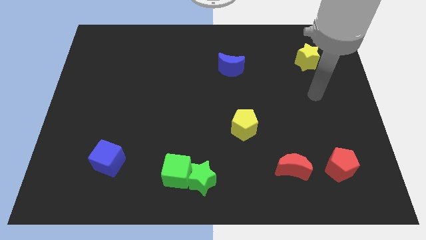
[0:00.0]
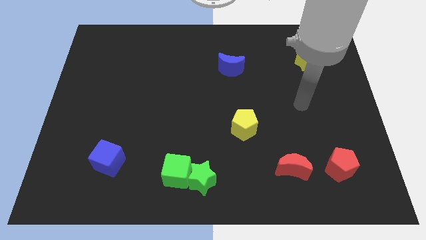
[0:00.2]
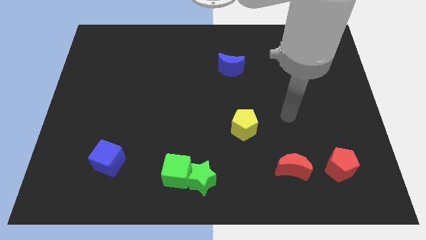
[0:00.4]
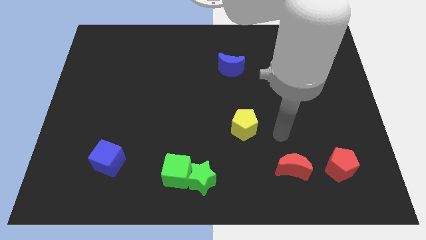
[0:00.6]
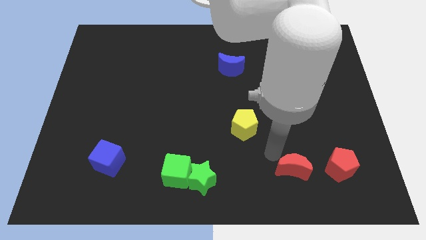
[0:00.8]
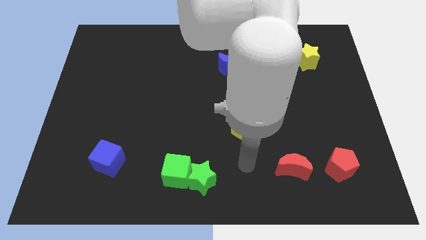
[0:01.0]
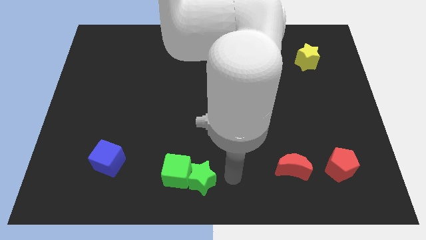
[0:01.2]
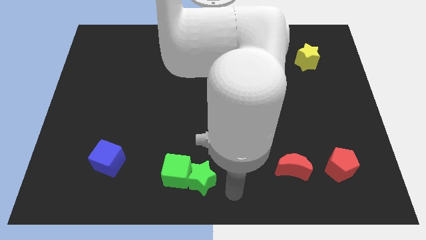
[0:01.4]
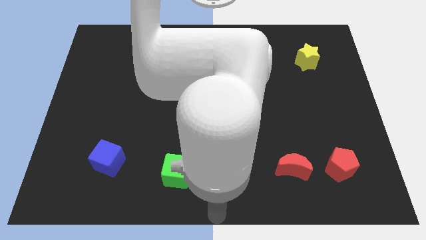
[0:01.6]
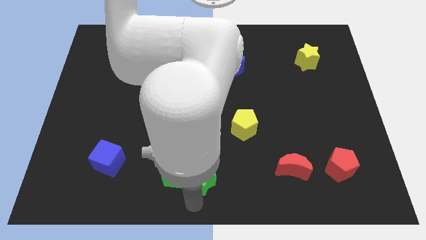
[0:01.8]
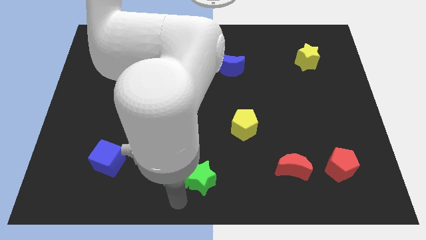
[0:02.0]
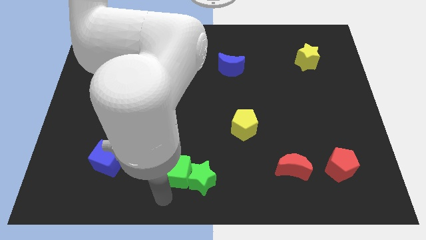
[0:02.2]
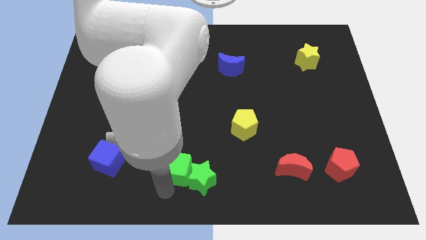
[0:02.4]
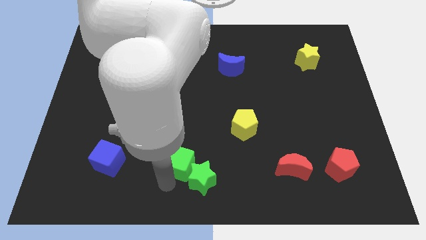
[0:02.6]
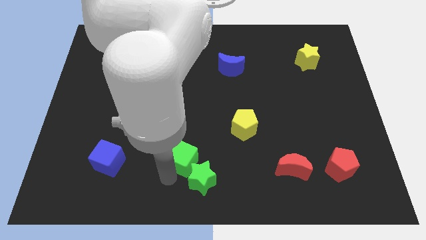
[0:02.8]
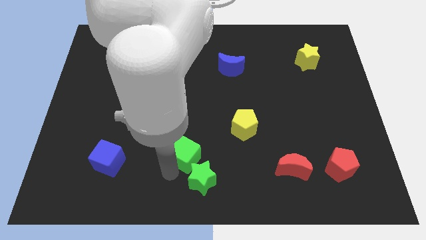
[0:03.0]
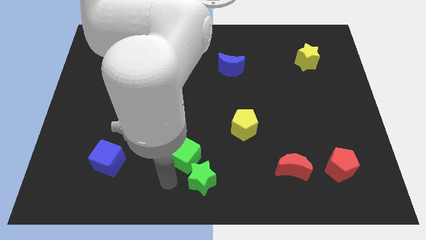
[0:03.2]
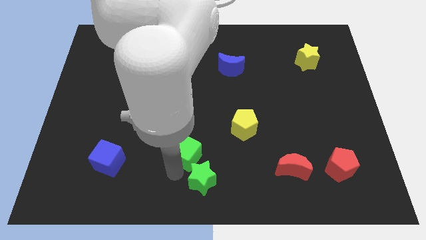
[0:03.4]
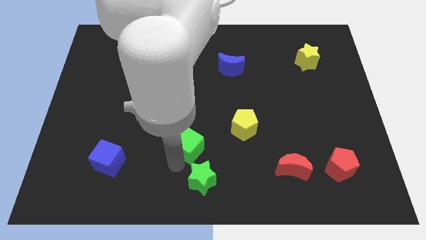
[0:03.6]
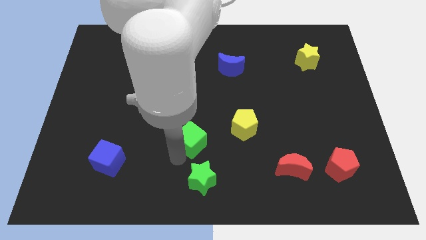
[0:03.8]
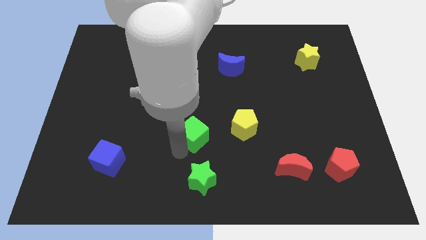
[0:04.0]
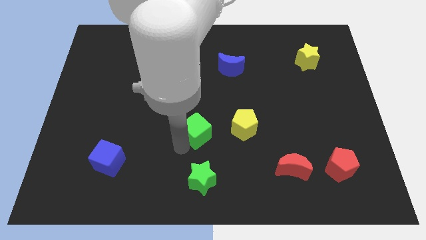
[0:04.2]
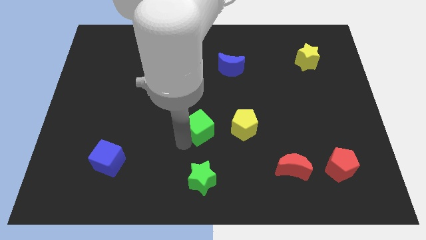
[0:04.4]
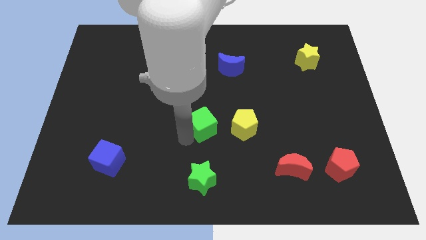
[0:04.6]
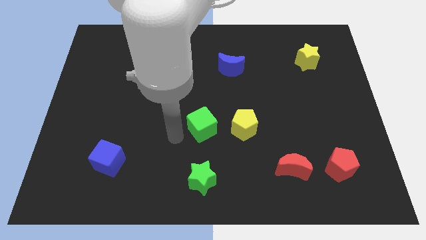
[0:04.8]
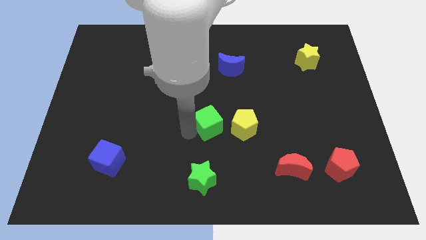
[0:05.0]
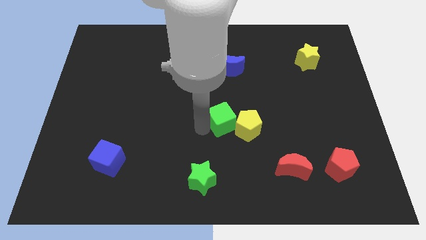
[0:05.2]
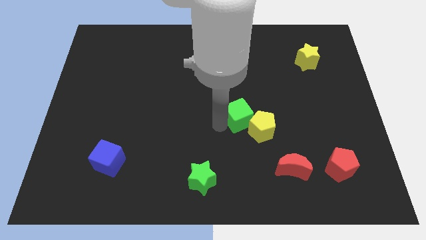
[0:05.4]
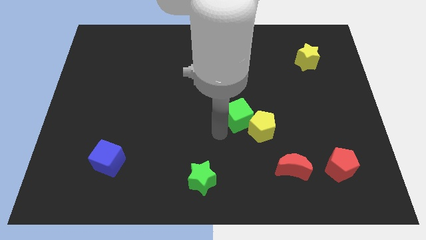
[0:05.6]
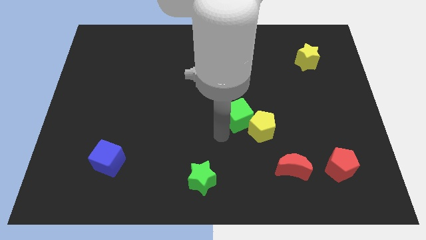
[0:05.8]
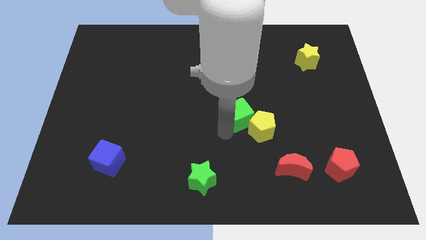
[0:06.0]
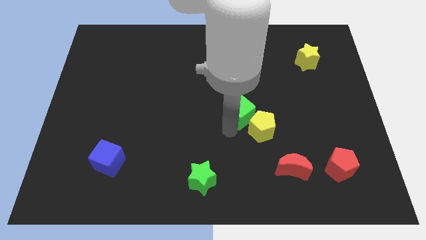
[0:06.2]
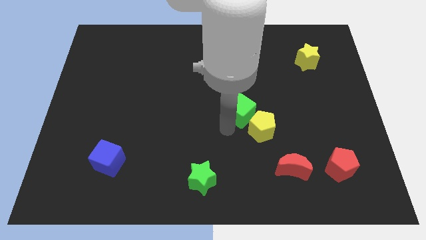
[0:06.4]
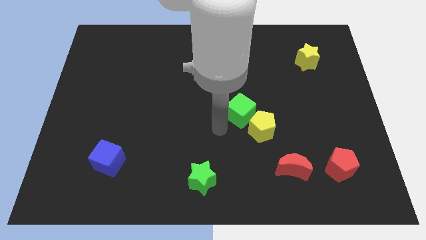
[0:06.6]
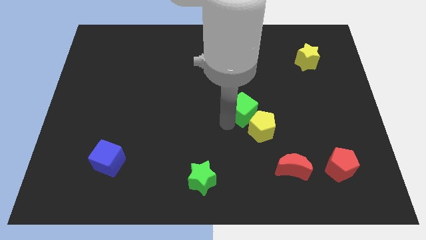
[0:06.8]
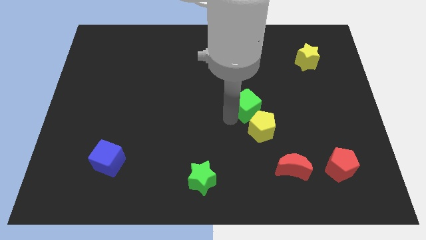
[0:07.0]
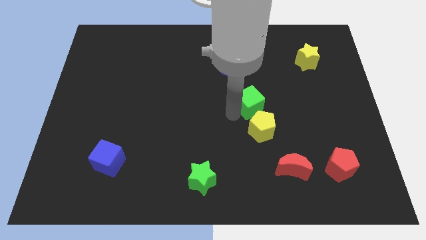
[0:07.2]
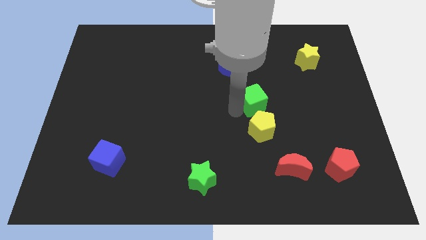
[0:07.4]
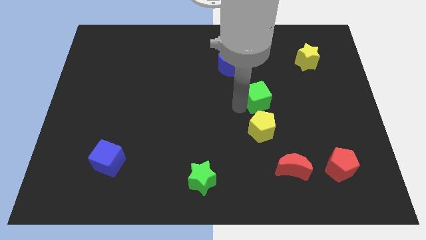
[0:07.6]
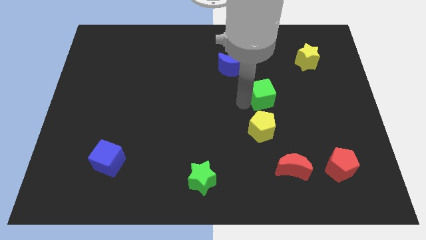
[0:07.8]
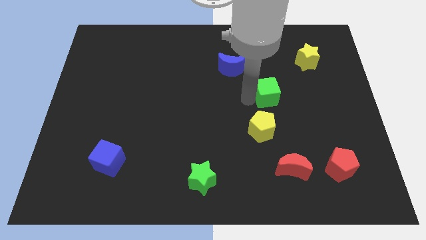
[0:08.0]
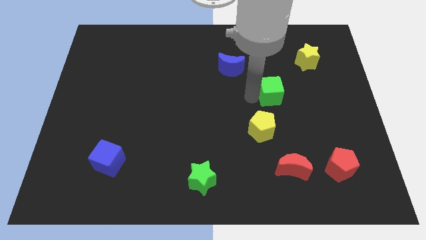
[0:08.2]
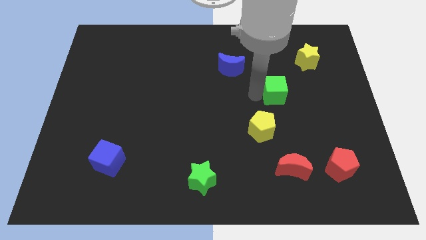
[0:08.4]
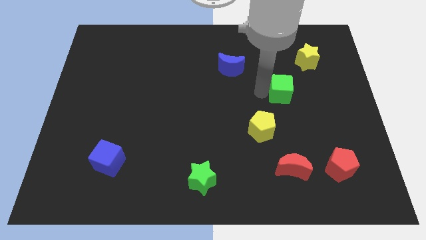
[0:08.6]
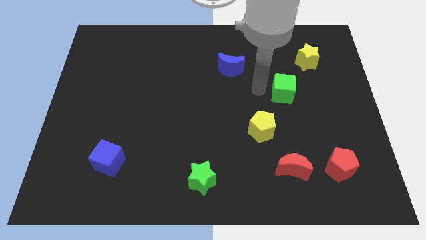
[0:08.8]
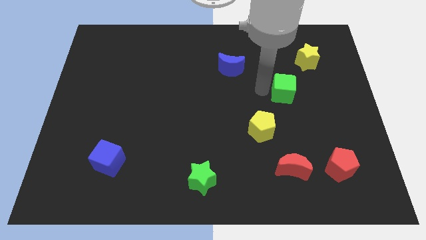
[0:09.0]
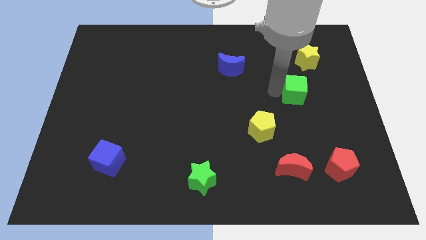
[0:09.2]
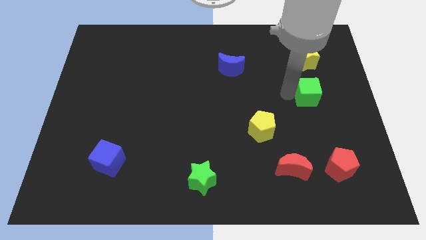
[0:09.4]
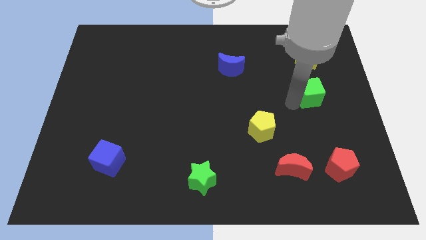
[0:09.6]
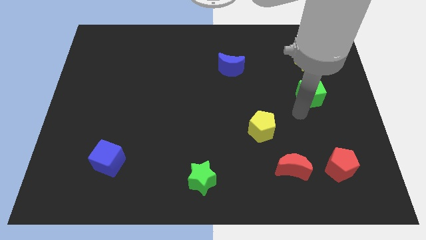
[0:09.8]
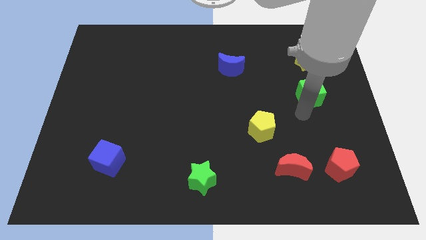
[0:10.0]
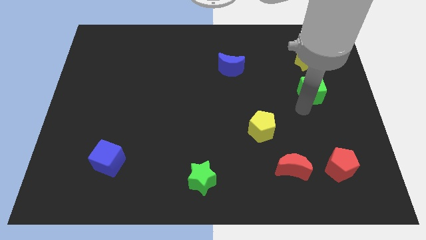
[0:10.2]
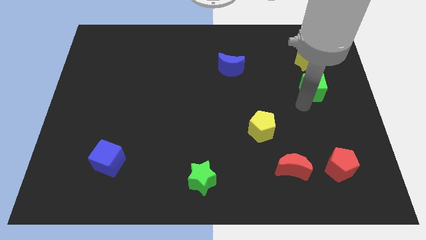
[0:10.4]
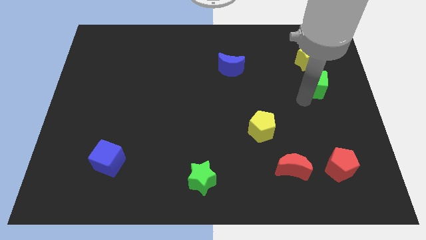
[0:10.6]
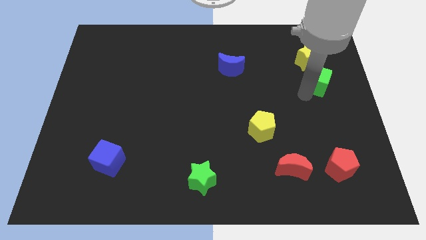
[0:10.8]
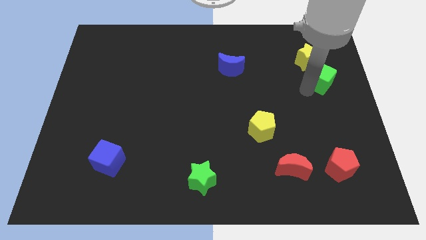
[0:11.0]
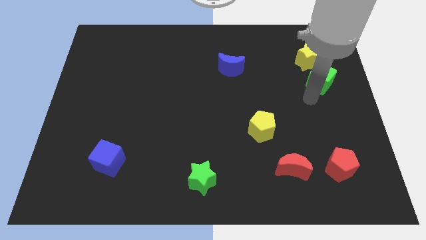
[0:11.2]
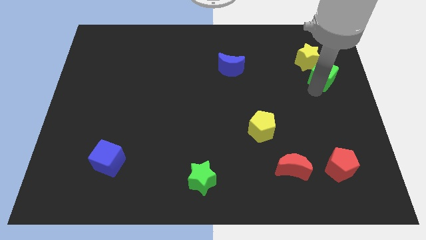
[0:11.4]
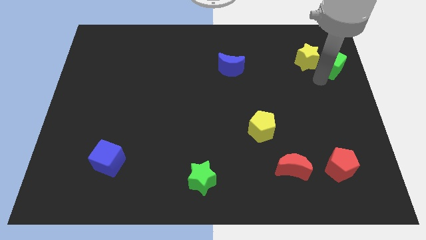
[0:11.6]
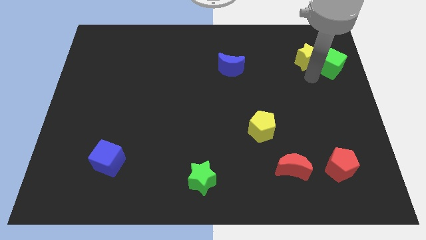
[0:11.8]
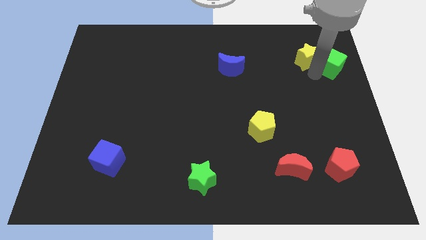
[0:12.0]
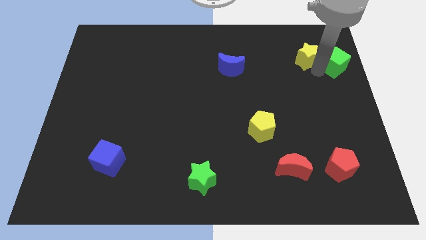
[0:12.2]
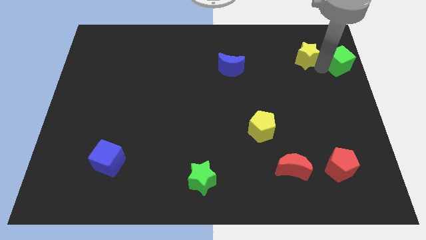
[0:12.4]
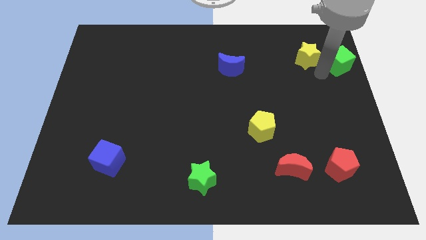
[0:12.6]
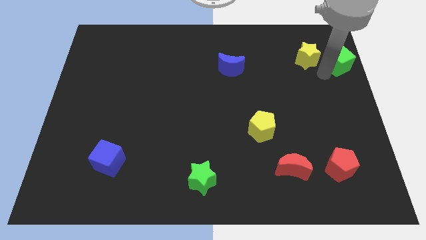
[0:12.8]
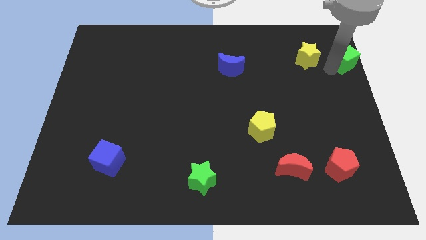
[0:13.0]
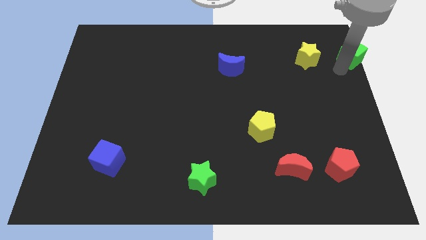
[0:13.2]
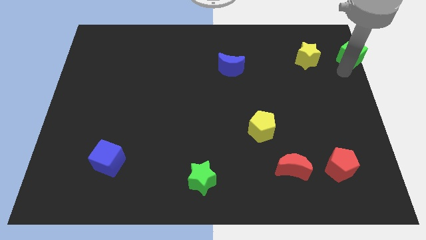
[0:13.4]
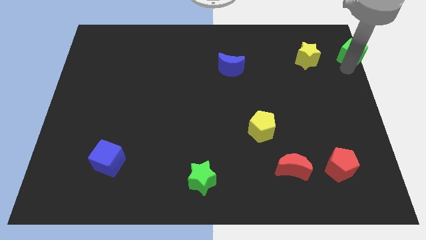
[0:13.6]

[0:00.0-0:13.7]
put the green cube to the upper right corner
